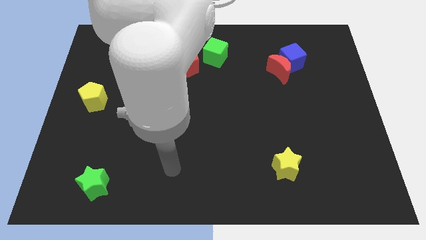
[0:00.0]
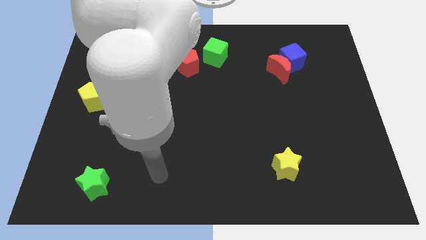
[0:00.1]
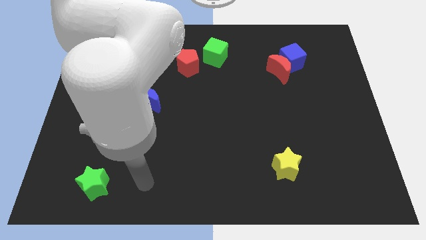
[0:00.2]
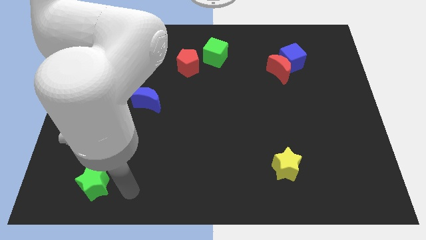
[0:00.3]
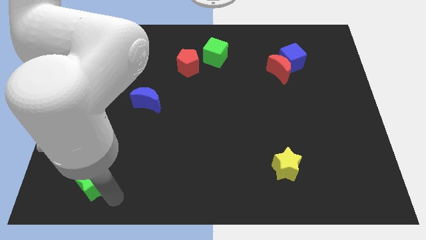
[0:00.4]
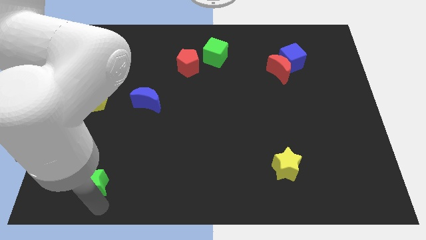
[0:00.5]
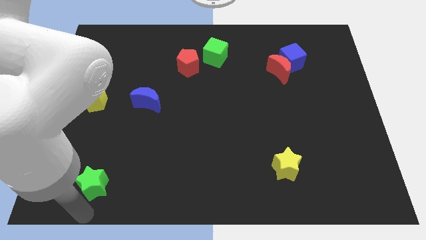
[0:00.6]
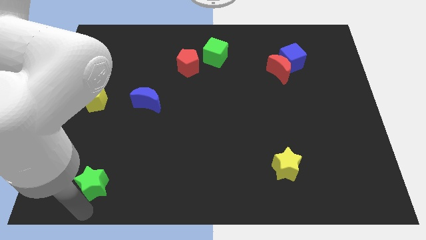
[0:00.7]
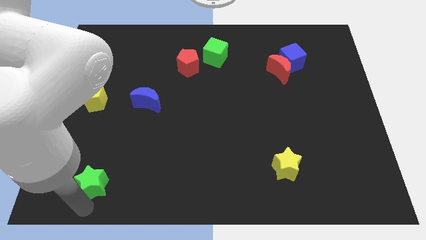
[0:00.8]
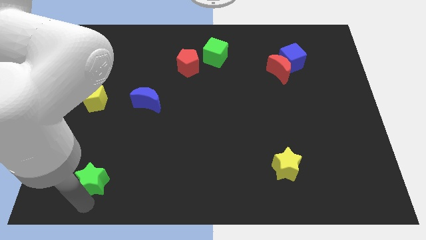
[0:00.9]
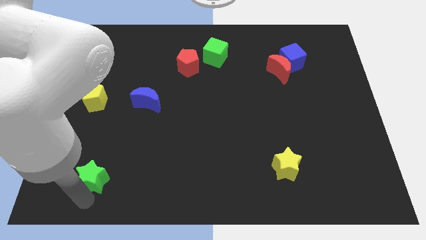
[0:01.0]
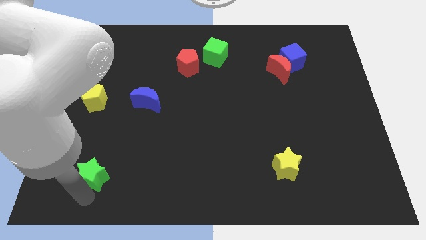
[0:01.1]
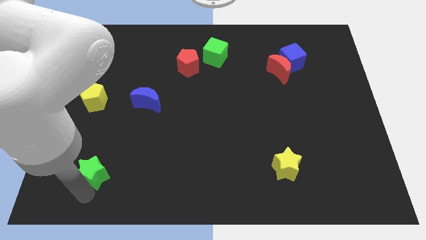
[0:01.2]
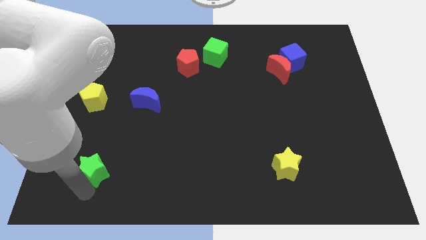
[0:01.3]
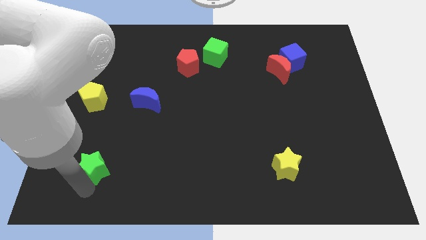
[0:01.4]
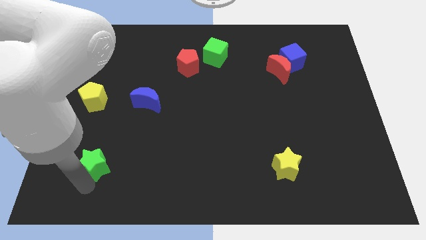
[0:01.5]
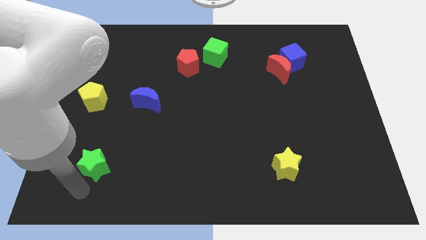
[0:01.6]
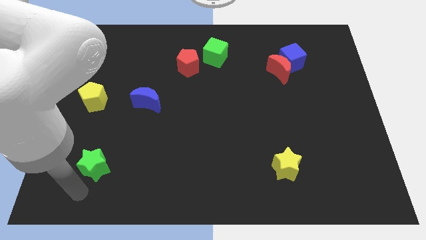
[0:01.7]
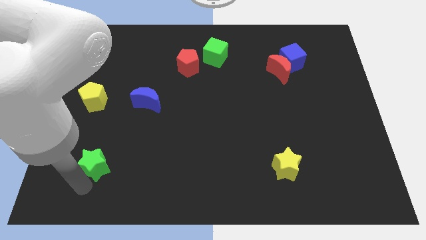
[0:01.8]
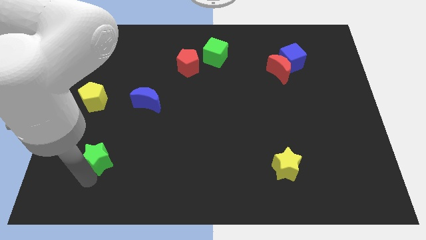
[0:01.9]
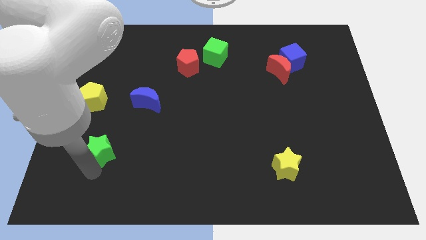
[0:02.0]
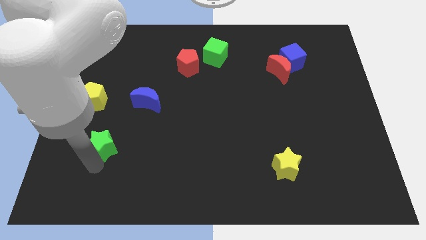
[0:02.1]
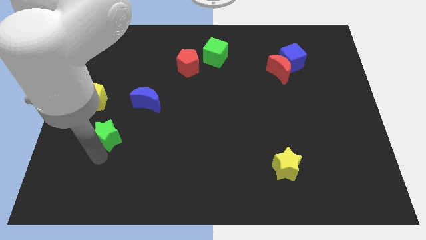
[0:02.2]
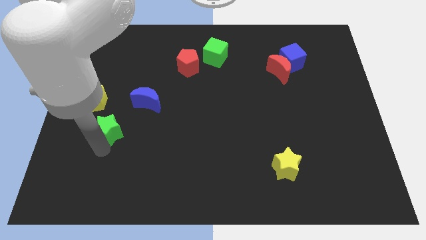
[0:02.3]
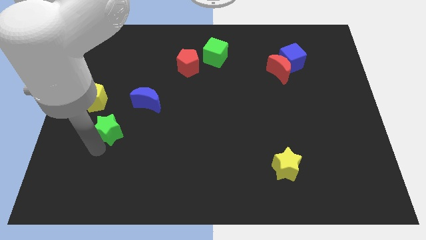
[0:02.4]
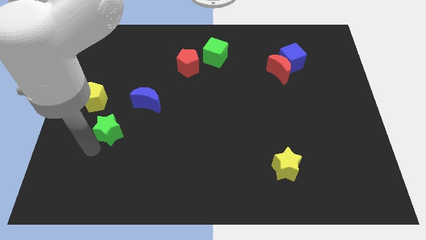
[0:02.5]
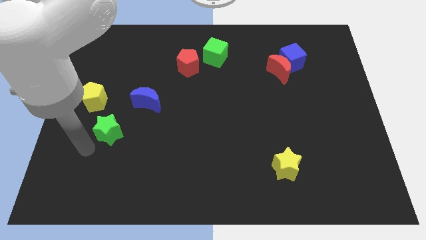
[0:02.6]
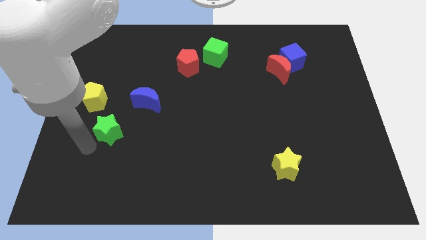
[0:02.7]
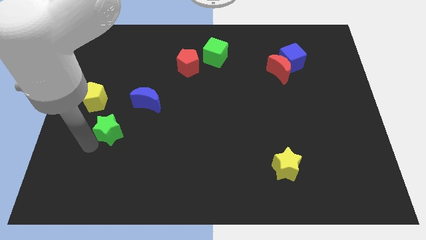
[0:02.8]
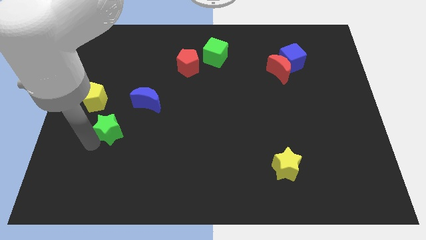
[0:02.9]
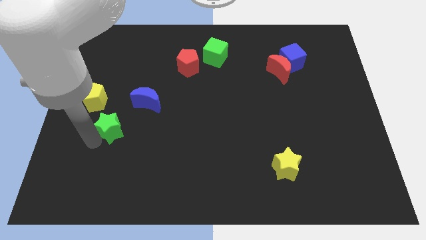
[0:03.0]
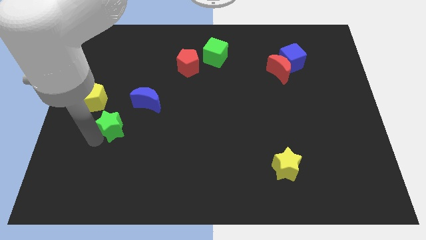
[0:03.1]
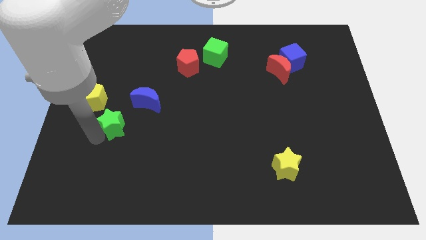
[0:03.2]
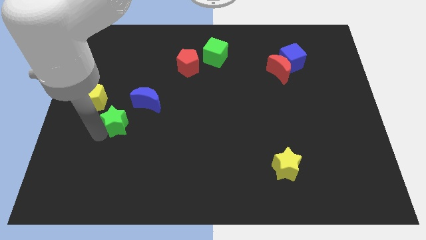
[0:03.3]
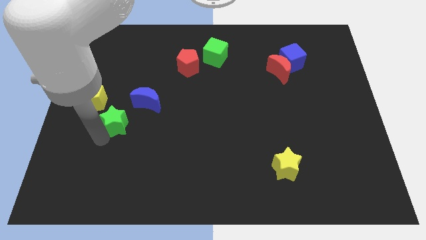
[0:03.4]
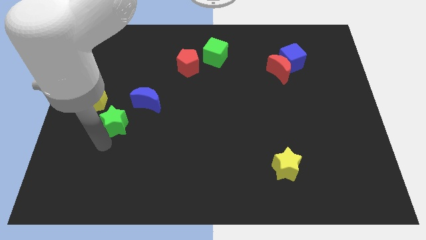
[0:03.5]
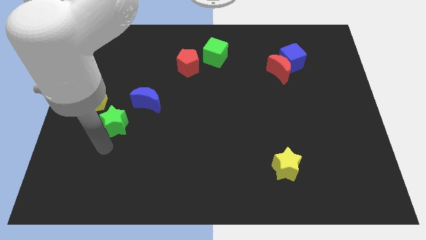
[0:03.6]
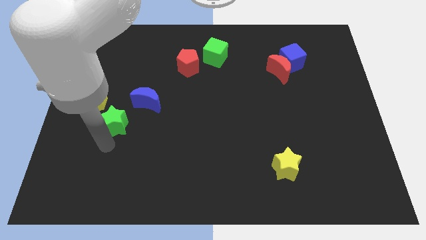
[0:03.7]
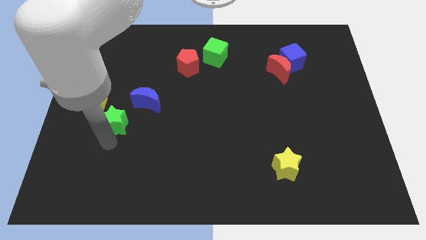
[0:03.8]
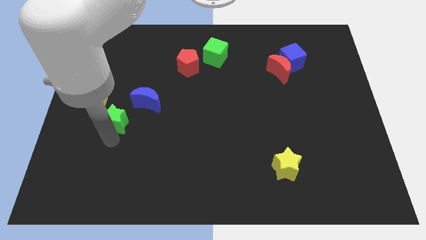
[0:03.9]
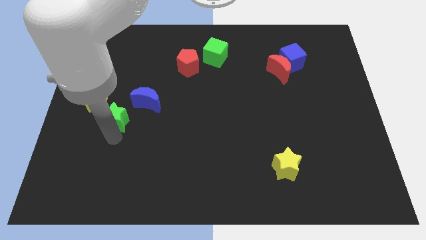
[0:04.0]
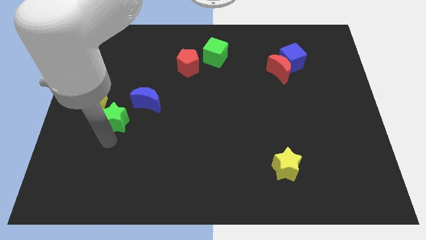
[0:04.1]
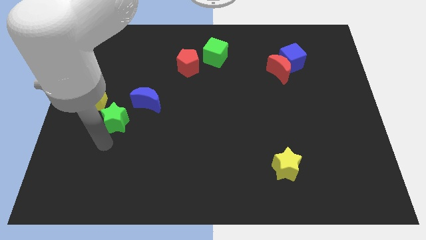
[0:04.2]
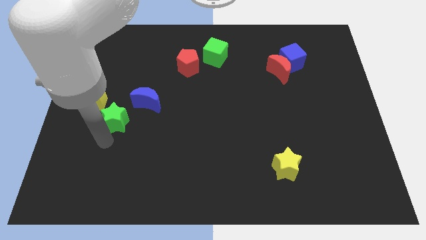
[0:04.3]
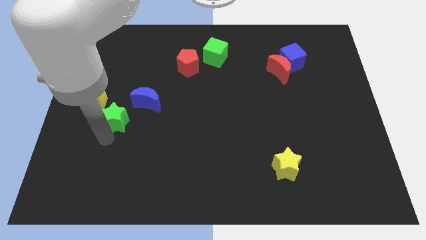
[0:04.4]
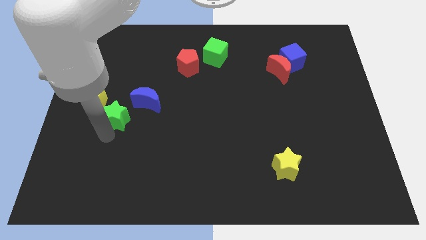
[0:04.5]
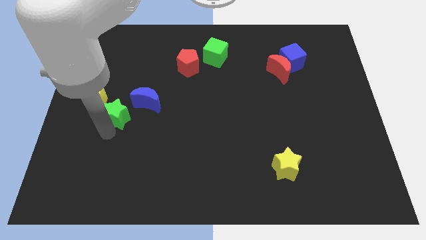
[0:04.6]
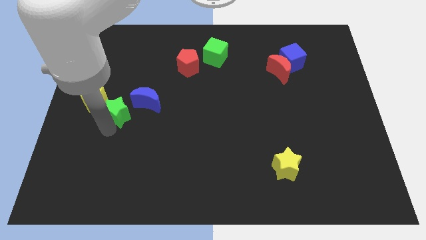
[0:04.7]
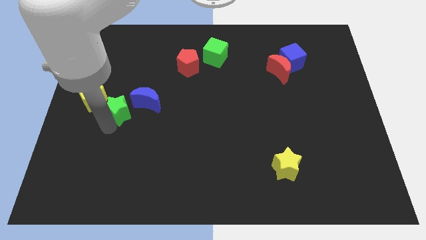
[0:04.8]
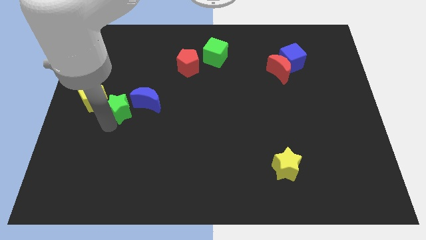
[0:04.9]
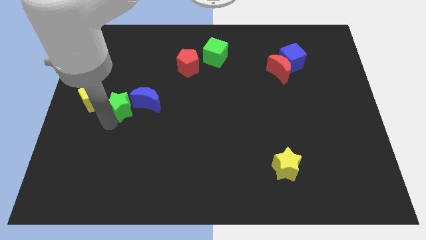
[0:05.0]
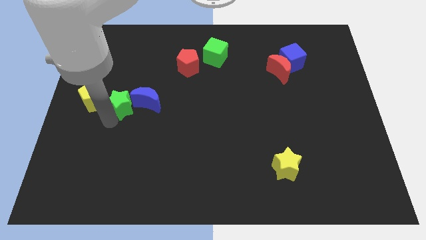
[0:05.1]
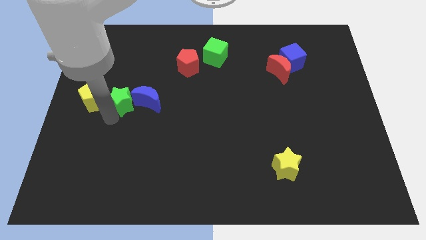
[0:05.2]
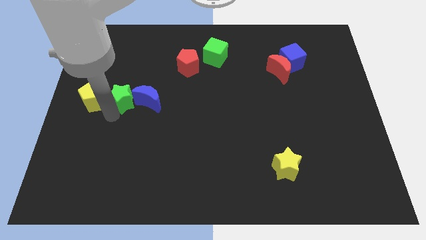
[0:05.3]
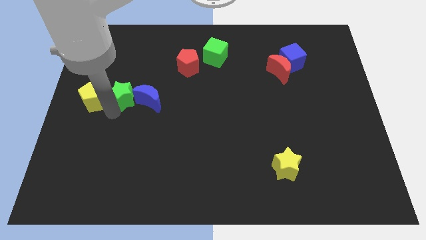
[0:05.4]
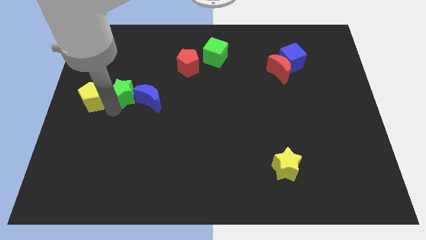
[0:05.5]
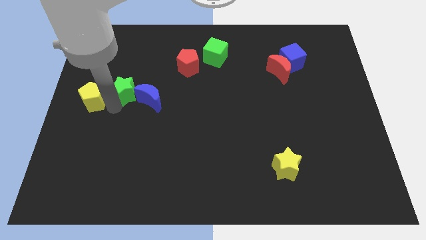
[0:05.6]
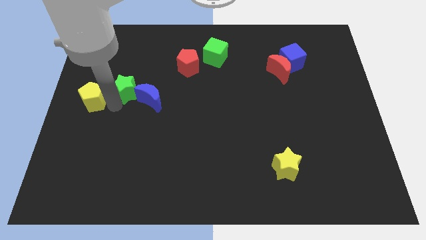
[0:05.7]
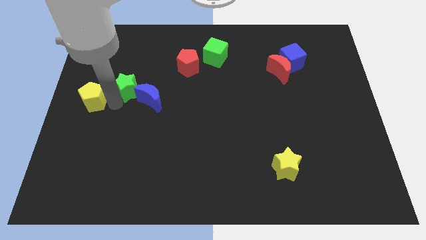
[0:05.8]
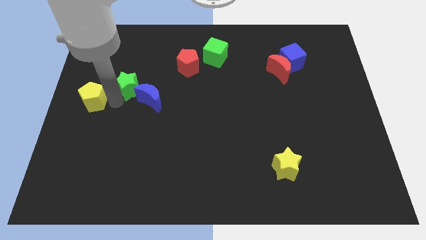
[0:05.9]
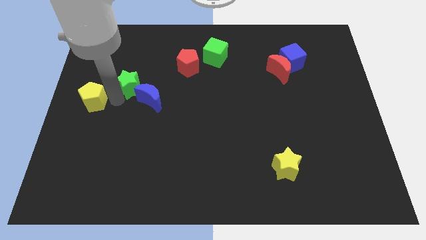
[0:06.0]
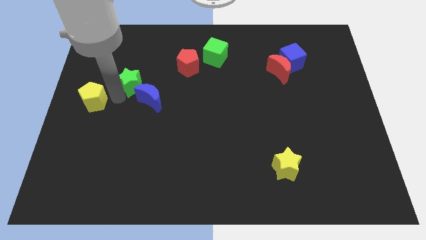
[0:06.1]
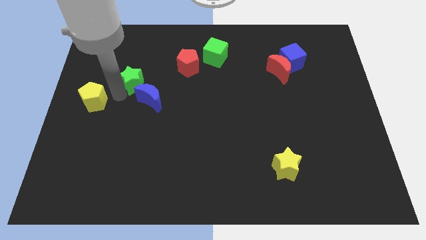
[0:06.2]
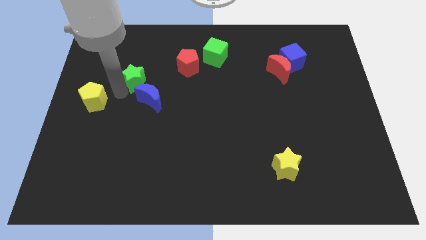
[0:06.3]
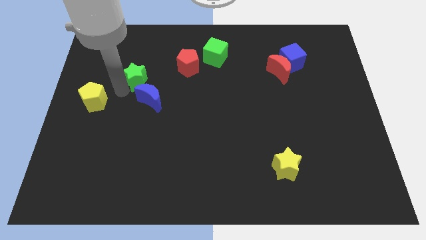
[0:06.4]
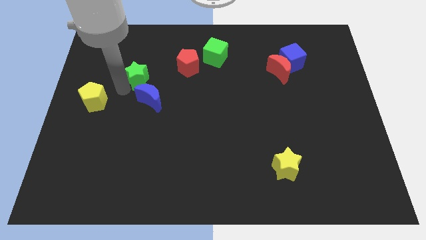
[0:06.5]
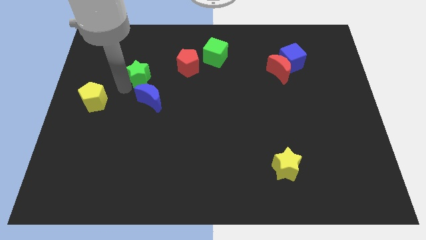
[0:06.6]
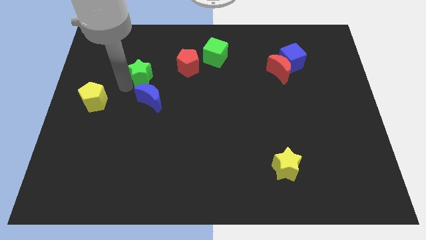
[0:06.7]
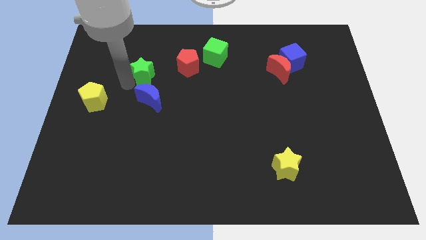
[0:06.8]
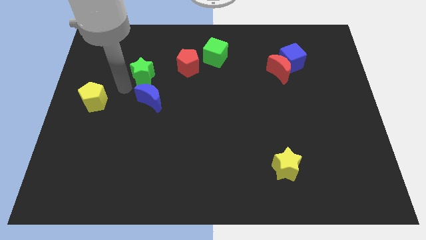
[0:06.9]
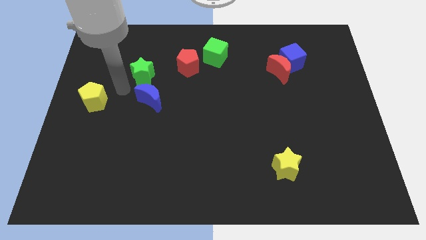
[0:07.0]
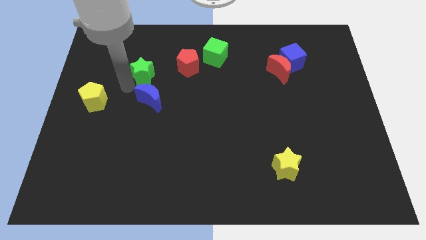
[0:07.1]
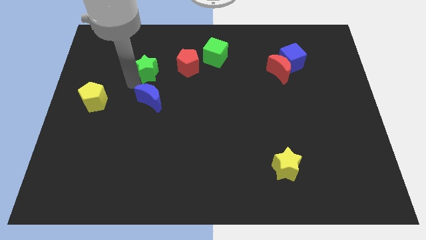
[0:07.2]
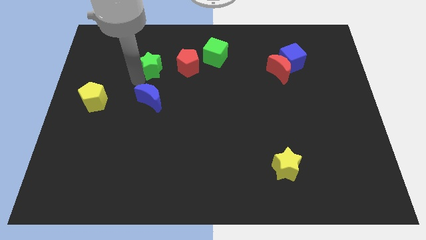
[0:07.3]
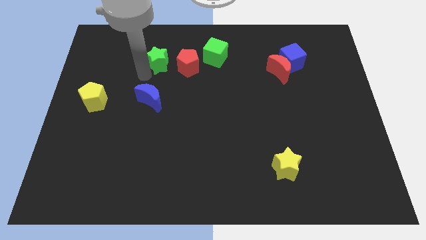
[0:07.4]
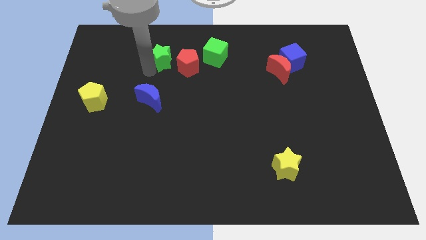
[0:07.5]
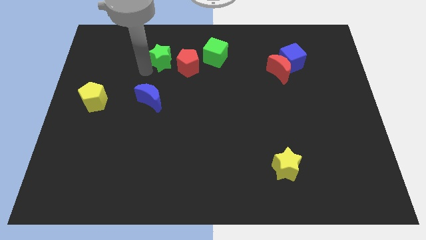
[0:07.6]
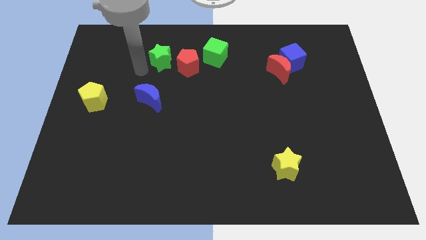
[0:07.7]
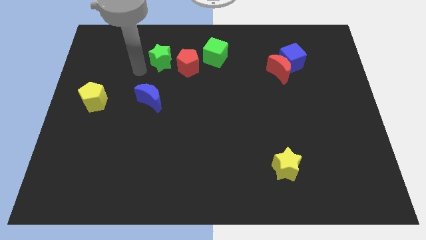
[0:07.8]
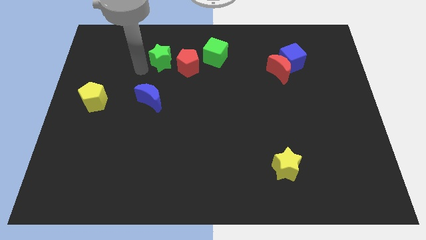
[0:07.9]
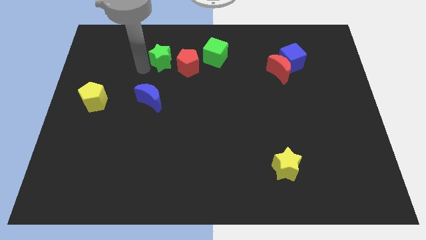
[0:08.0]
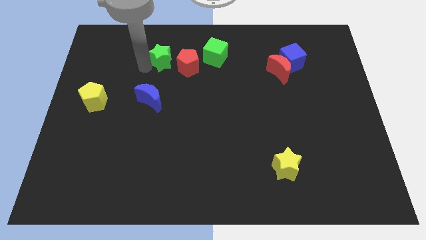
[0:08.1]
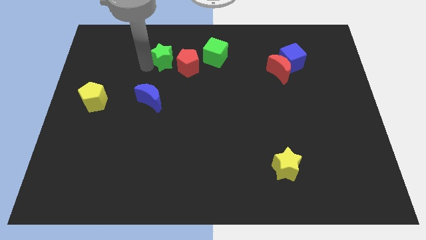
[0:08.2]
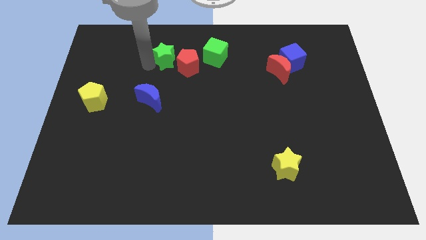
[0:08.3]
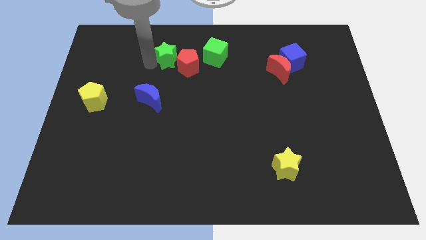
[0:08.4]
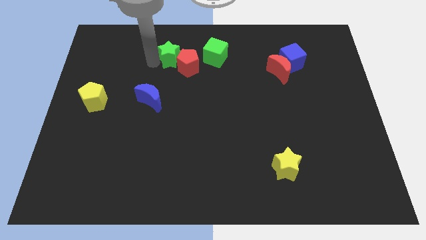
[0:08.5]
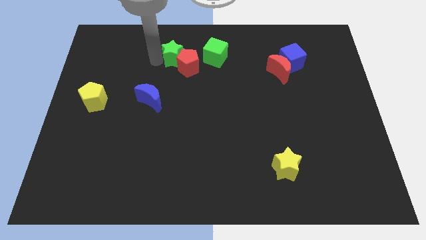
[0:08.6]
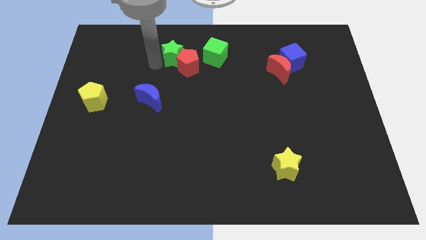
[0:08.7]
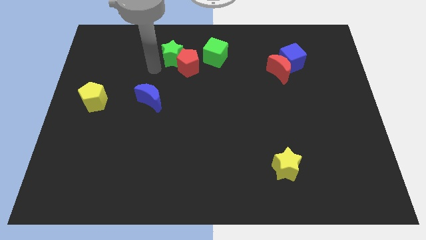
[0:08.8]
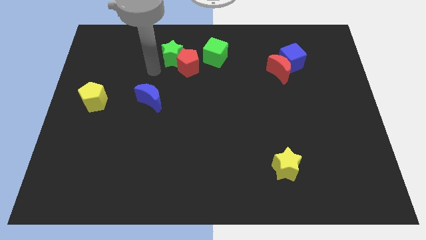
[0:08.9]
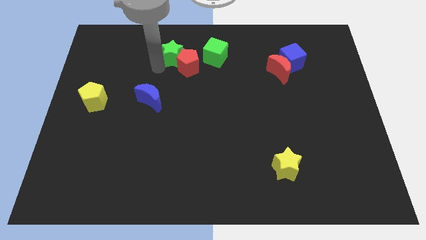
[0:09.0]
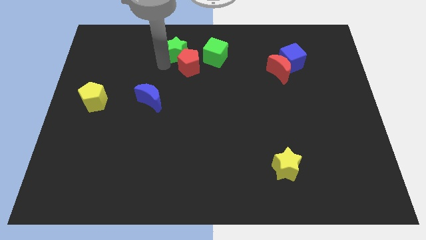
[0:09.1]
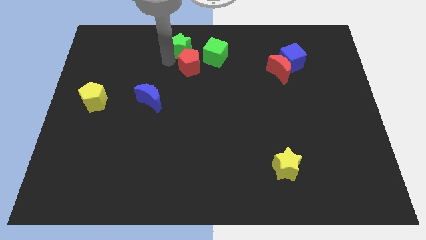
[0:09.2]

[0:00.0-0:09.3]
put the green star to the towards your base
